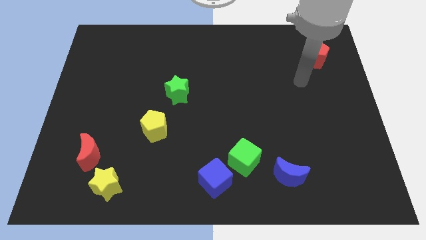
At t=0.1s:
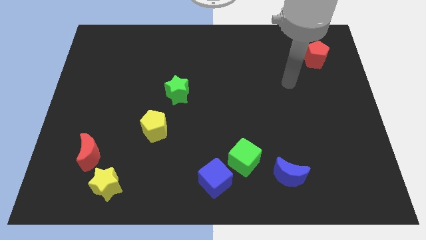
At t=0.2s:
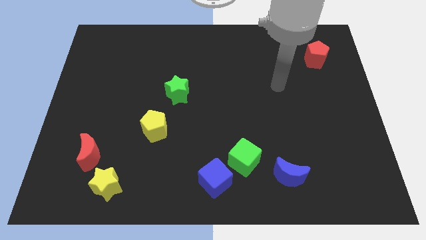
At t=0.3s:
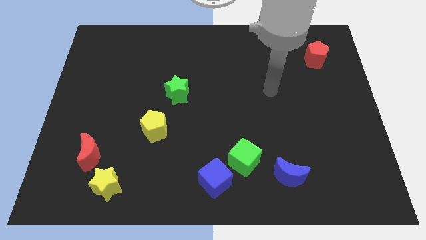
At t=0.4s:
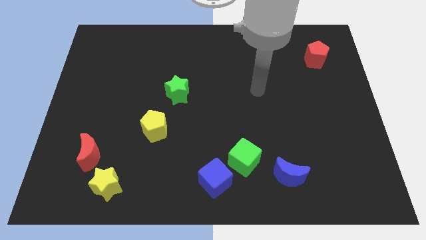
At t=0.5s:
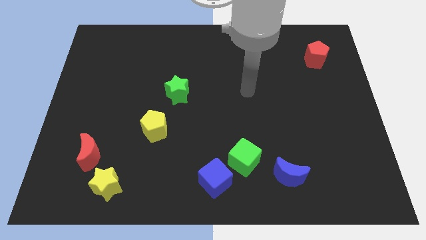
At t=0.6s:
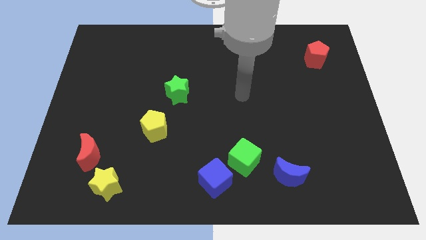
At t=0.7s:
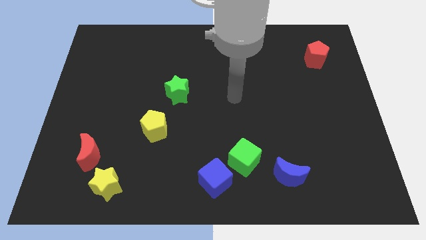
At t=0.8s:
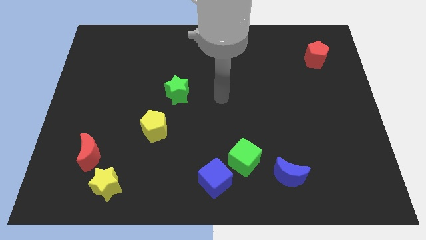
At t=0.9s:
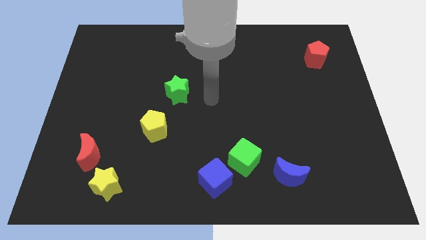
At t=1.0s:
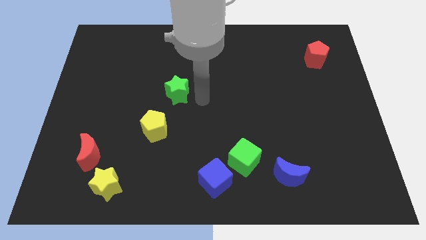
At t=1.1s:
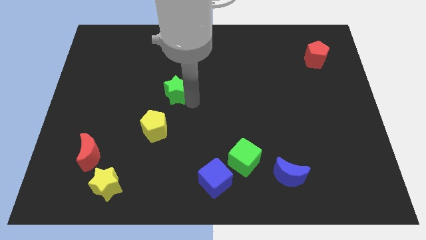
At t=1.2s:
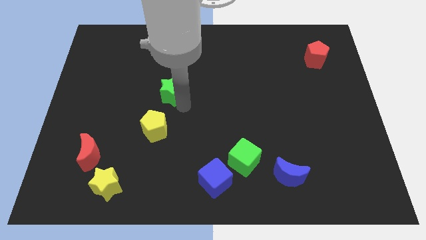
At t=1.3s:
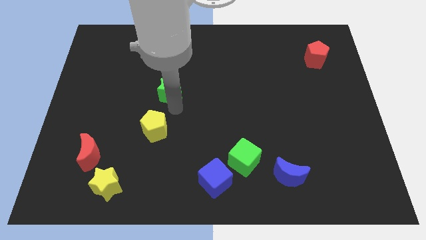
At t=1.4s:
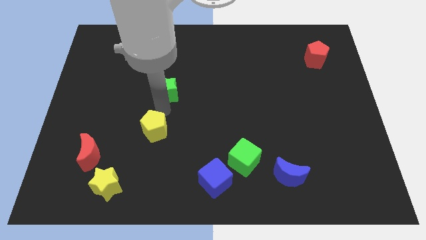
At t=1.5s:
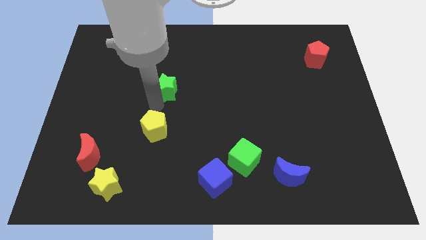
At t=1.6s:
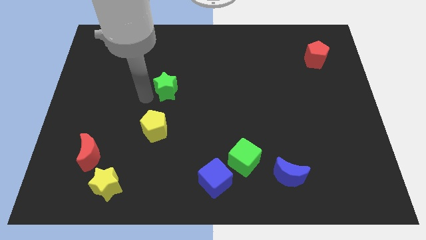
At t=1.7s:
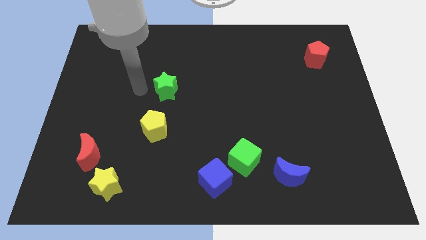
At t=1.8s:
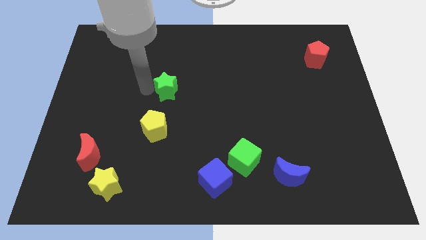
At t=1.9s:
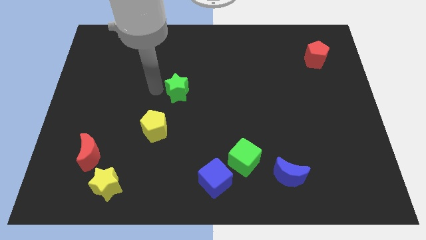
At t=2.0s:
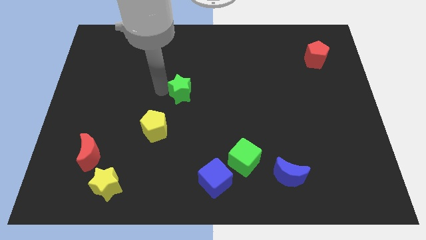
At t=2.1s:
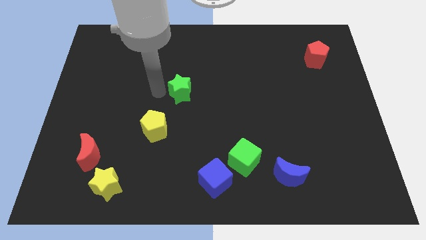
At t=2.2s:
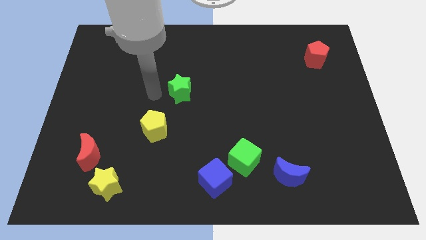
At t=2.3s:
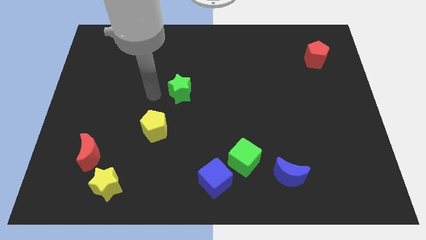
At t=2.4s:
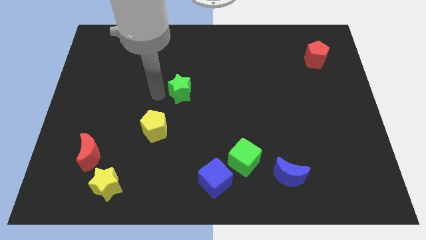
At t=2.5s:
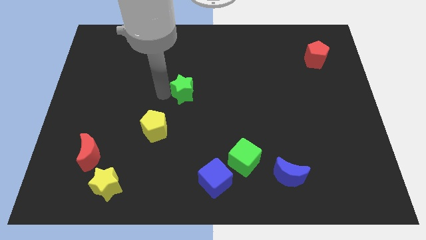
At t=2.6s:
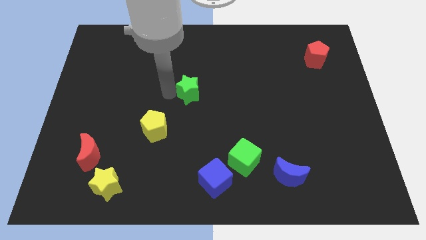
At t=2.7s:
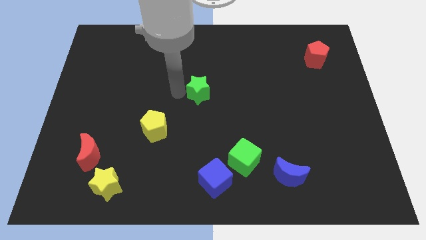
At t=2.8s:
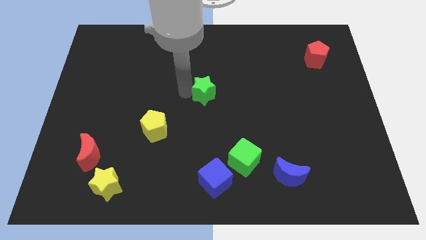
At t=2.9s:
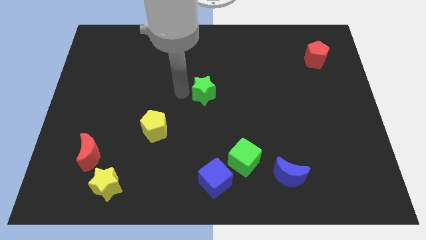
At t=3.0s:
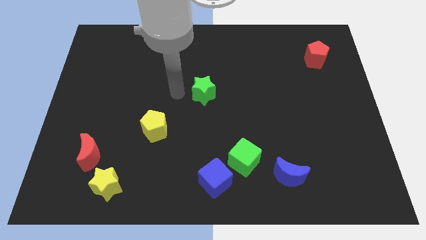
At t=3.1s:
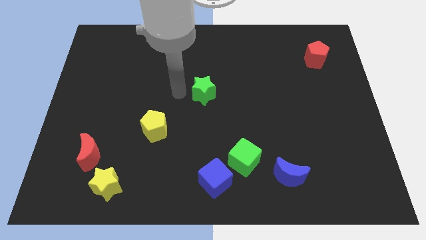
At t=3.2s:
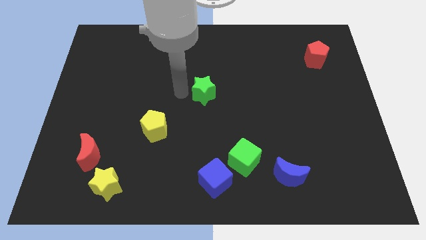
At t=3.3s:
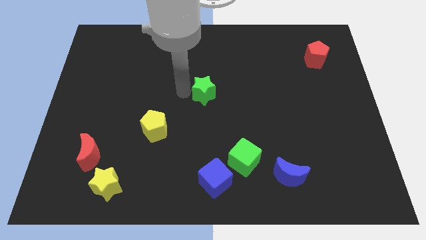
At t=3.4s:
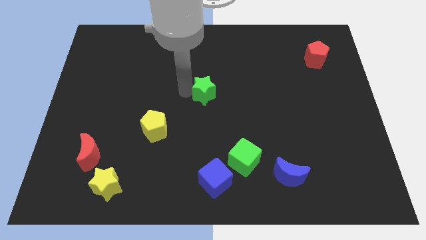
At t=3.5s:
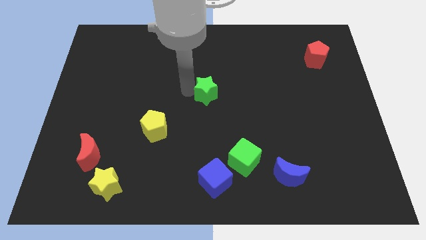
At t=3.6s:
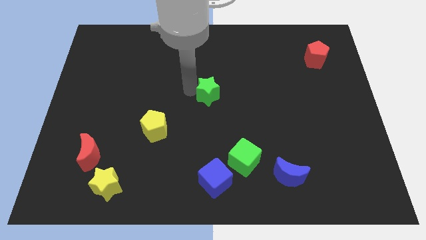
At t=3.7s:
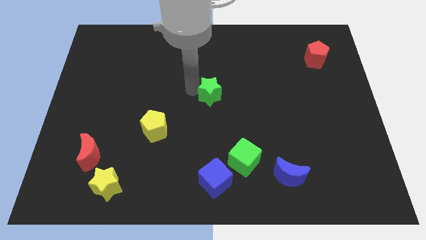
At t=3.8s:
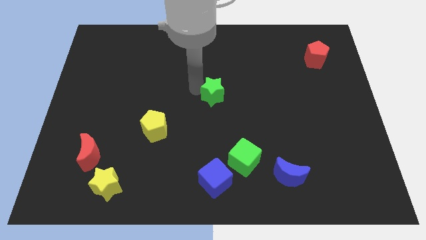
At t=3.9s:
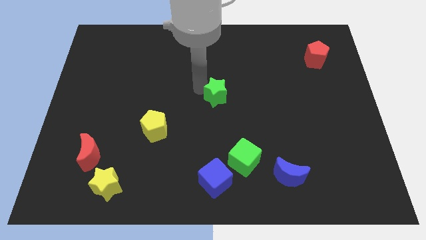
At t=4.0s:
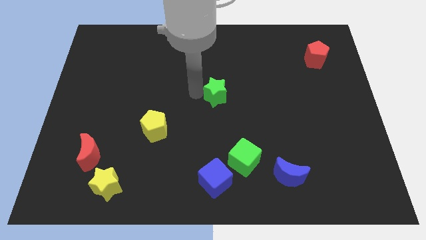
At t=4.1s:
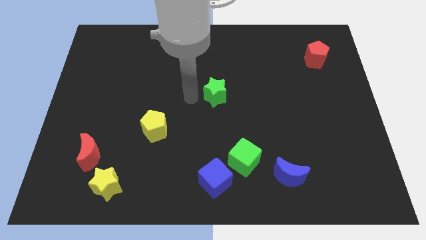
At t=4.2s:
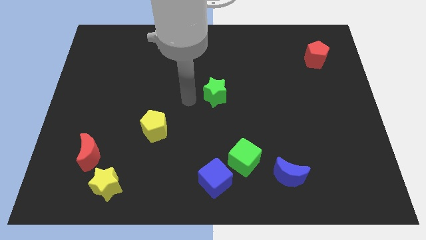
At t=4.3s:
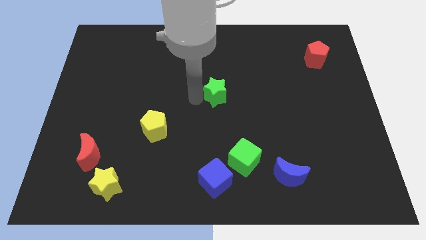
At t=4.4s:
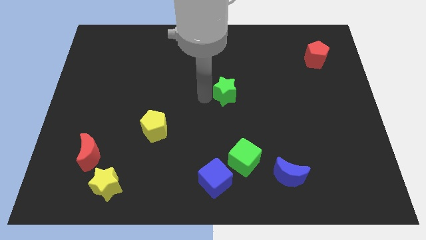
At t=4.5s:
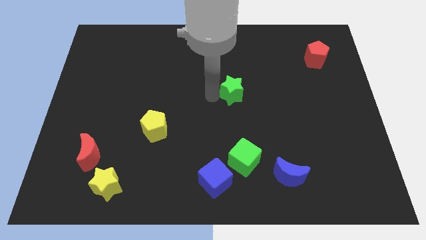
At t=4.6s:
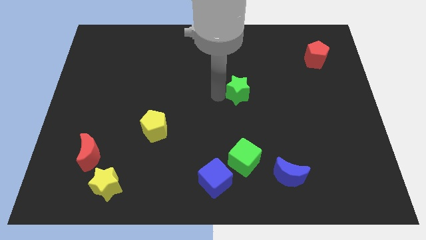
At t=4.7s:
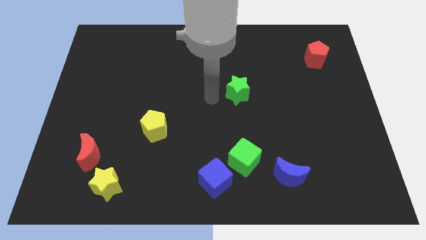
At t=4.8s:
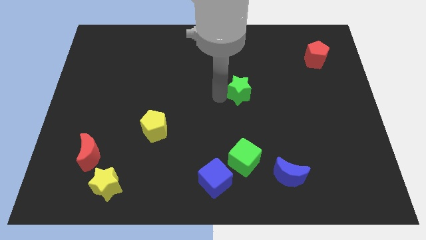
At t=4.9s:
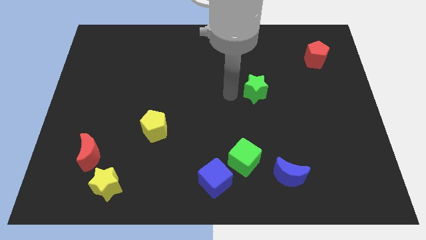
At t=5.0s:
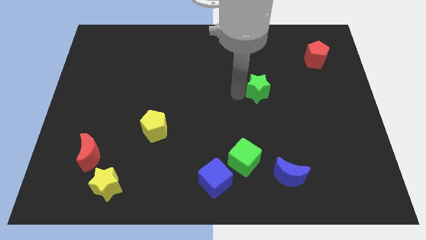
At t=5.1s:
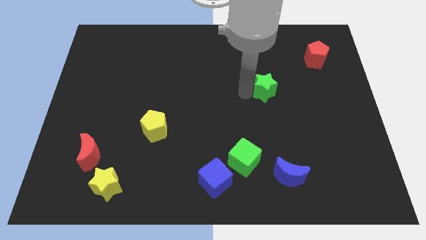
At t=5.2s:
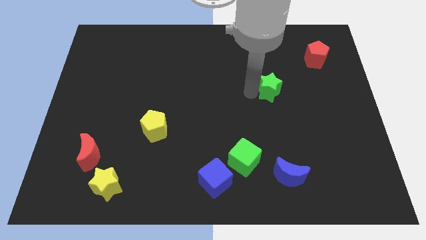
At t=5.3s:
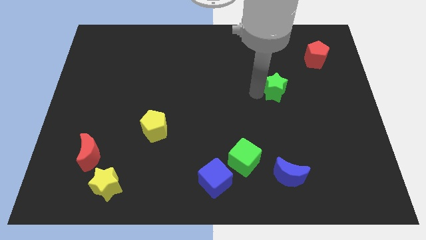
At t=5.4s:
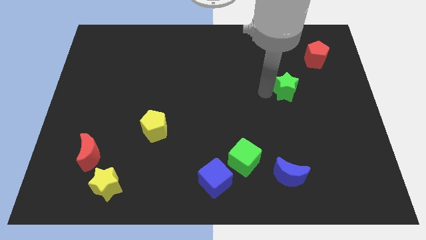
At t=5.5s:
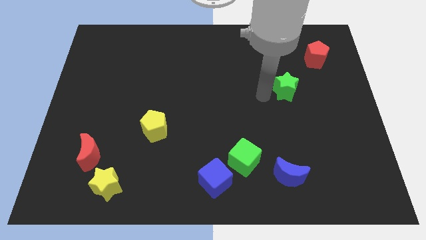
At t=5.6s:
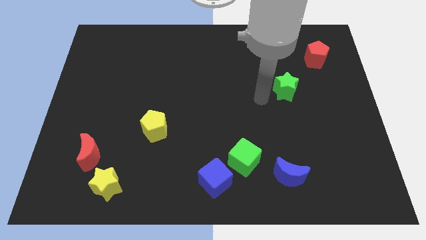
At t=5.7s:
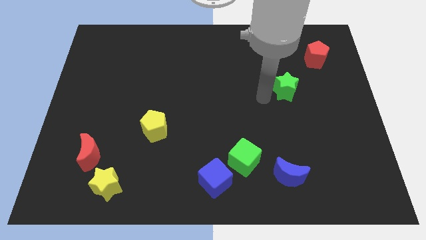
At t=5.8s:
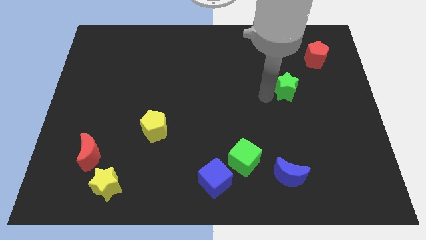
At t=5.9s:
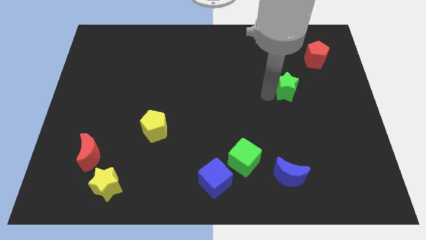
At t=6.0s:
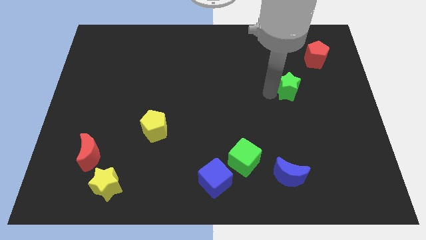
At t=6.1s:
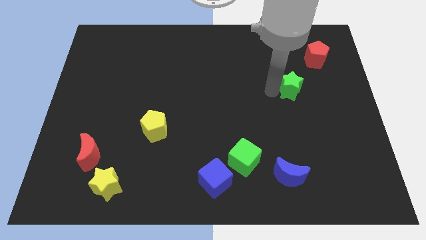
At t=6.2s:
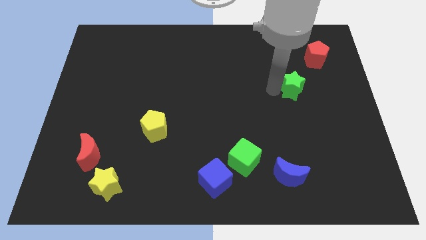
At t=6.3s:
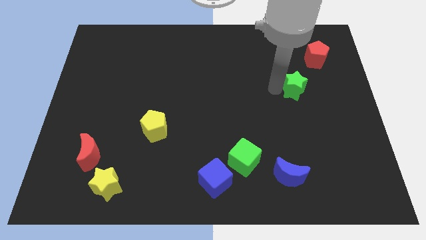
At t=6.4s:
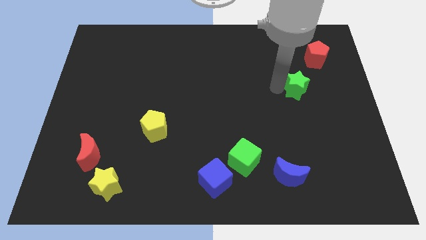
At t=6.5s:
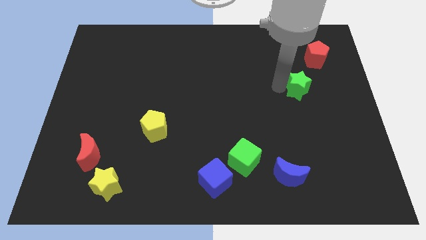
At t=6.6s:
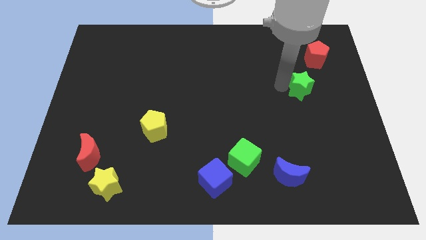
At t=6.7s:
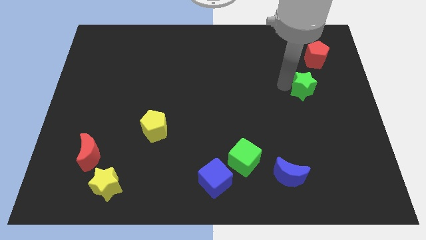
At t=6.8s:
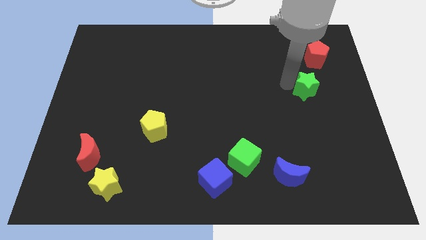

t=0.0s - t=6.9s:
move the green star below the red pentagon
